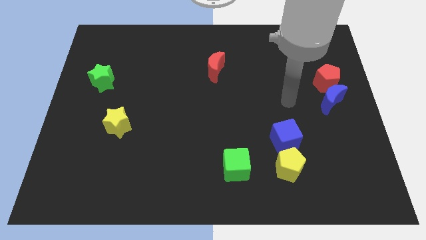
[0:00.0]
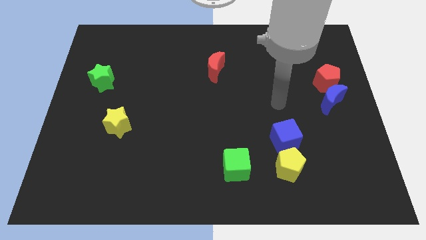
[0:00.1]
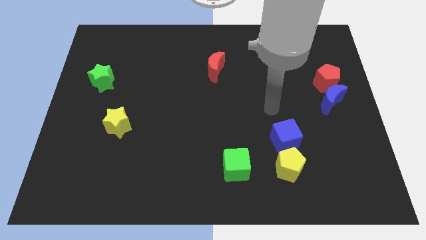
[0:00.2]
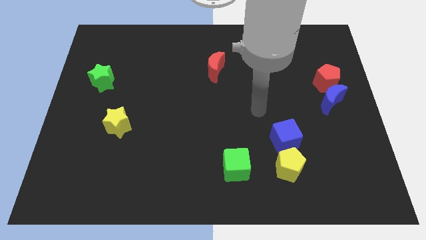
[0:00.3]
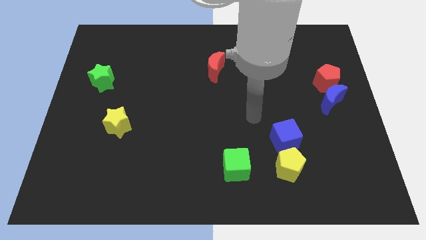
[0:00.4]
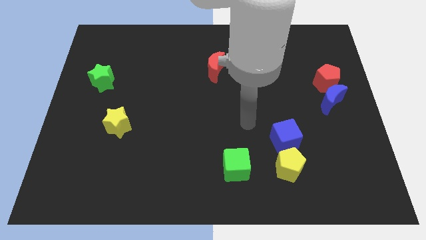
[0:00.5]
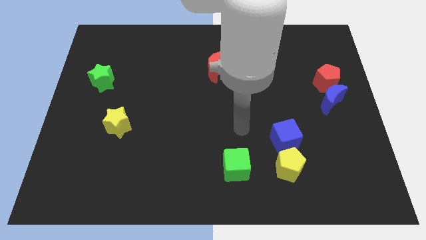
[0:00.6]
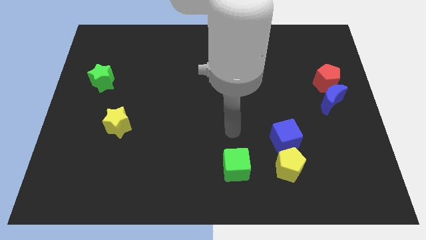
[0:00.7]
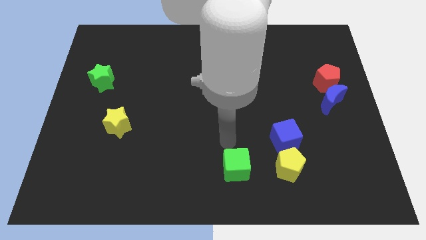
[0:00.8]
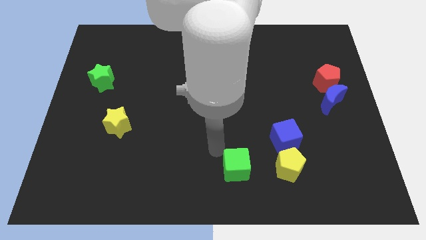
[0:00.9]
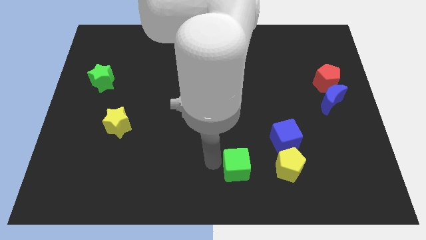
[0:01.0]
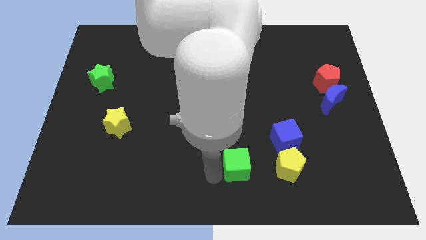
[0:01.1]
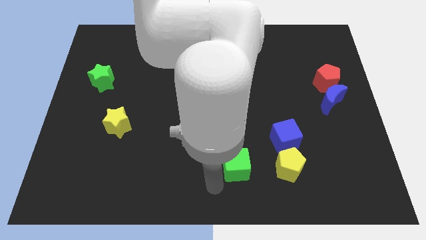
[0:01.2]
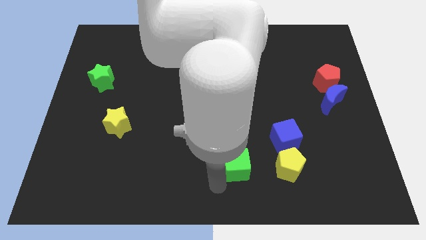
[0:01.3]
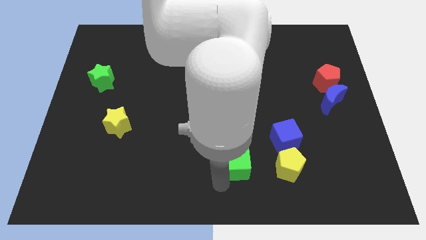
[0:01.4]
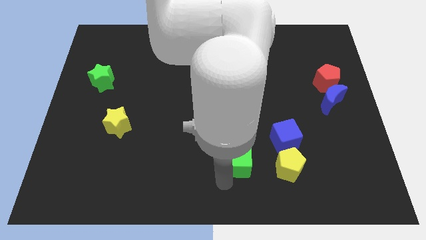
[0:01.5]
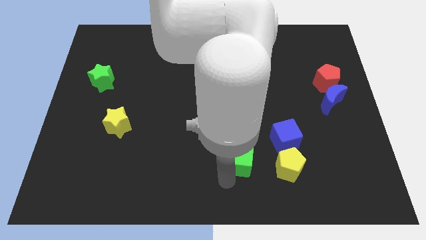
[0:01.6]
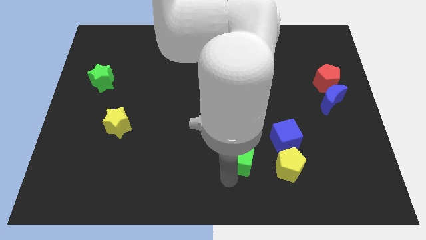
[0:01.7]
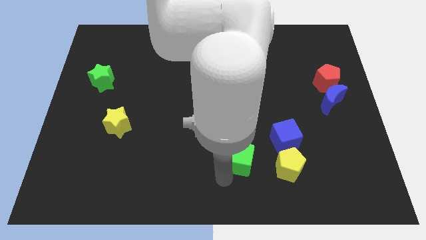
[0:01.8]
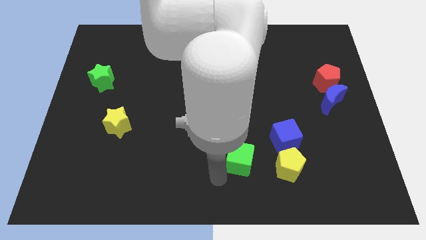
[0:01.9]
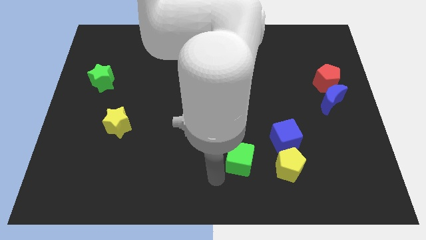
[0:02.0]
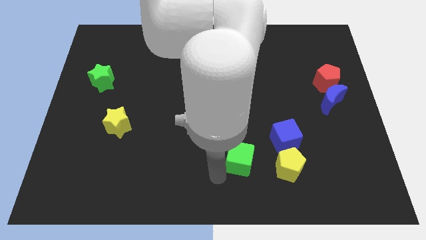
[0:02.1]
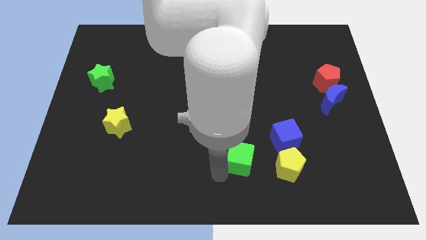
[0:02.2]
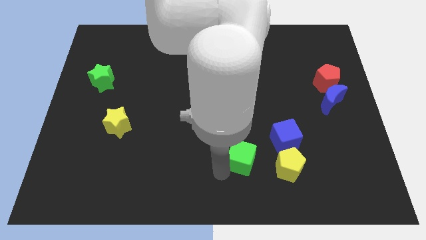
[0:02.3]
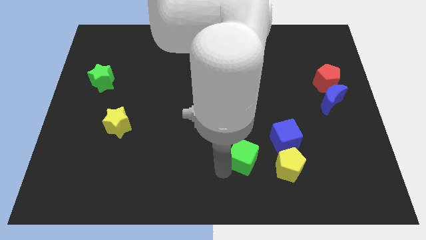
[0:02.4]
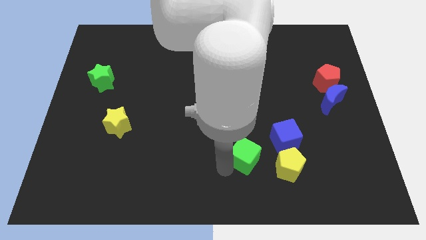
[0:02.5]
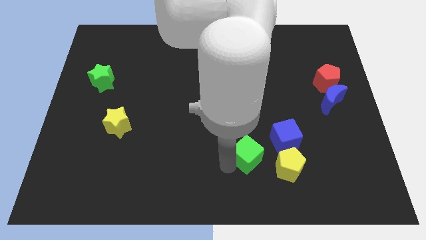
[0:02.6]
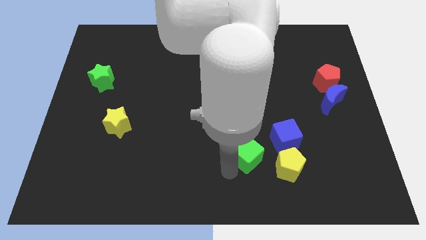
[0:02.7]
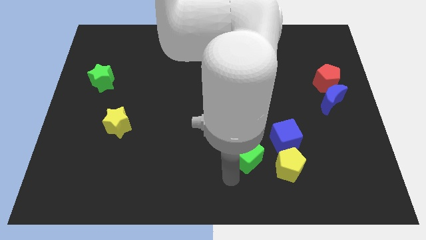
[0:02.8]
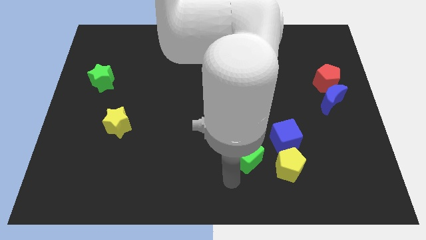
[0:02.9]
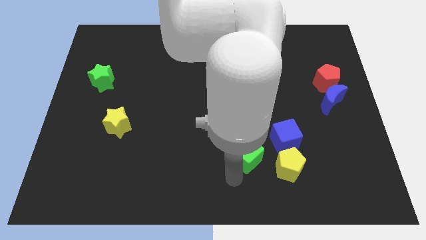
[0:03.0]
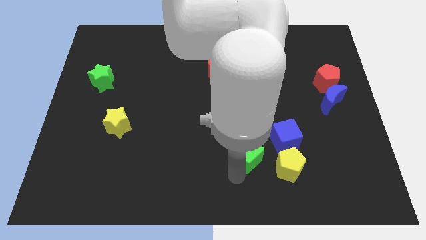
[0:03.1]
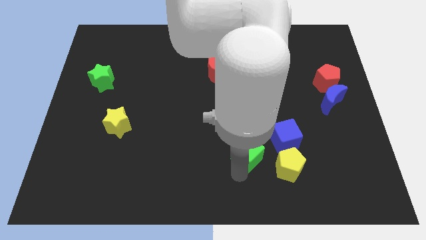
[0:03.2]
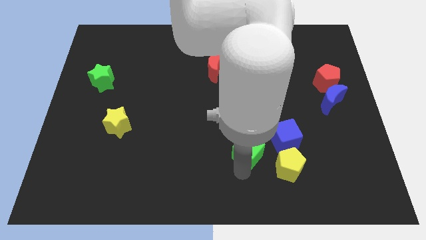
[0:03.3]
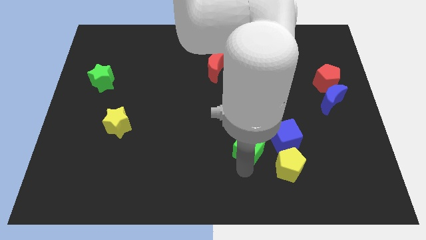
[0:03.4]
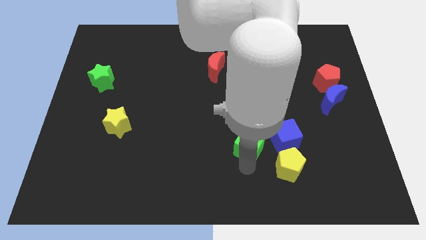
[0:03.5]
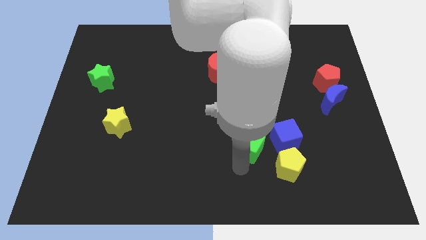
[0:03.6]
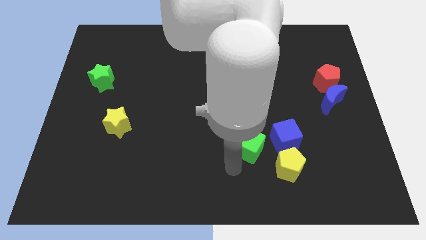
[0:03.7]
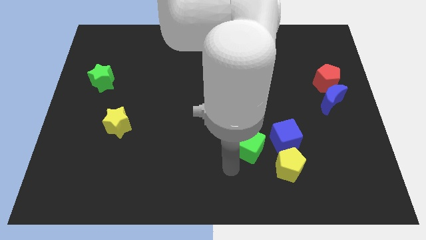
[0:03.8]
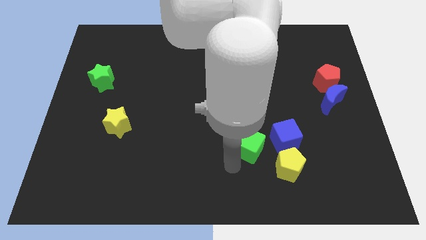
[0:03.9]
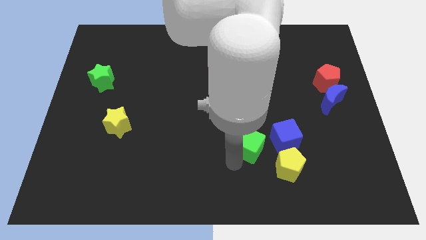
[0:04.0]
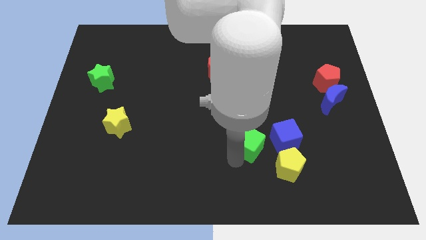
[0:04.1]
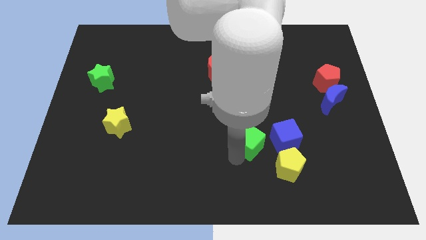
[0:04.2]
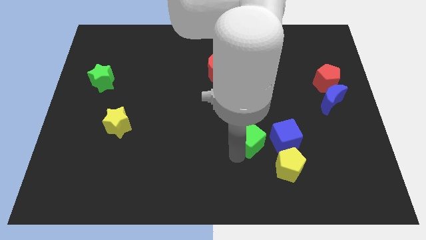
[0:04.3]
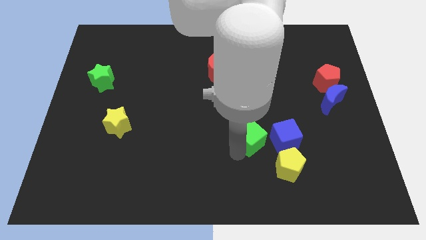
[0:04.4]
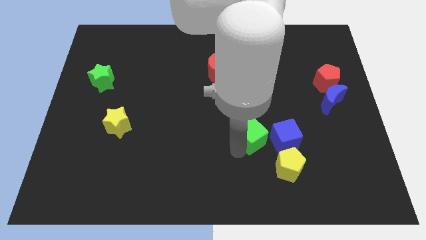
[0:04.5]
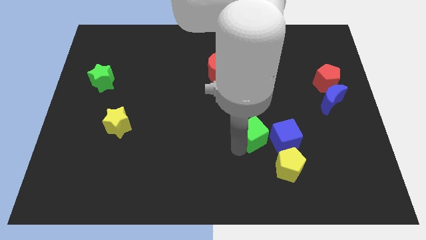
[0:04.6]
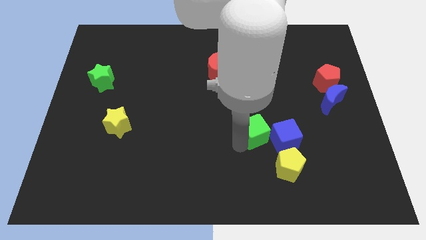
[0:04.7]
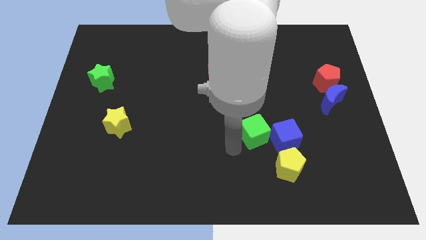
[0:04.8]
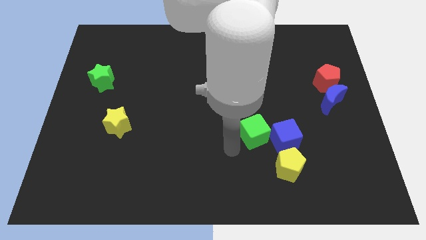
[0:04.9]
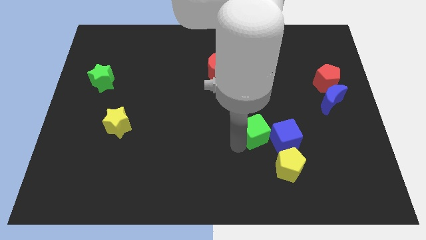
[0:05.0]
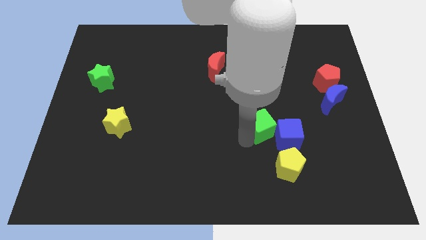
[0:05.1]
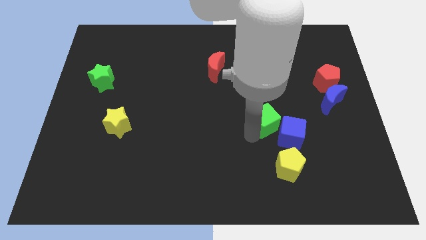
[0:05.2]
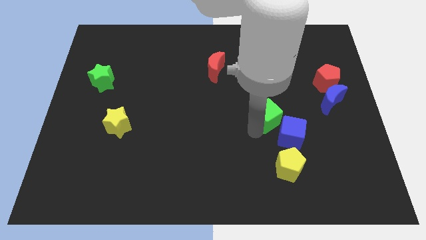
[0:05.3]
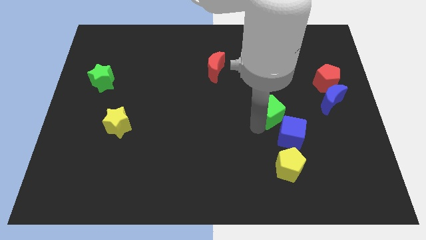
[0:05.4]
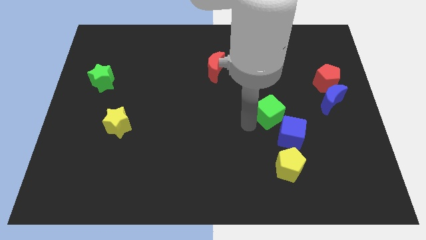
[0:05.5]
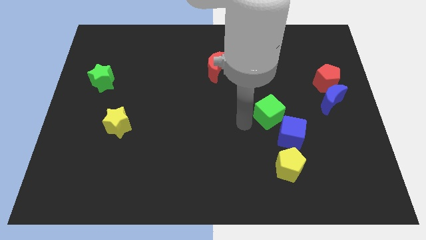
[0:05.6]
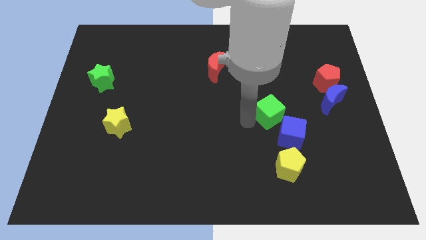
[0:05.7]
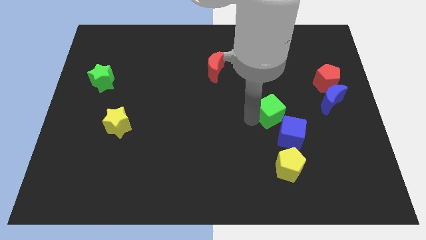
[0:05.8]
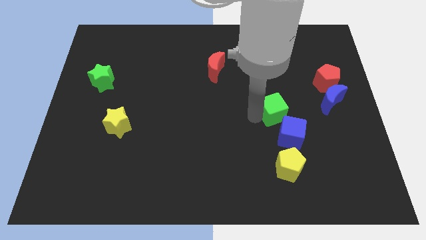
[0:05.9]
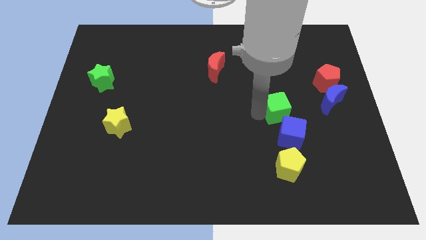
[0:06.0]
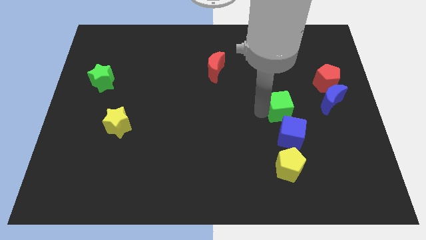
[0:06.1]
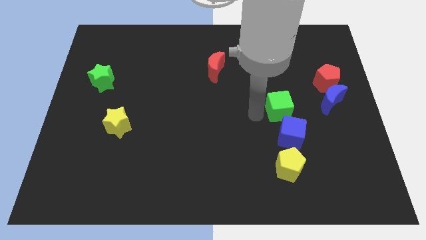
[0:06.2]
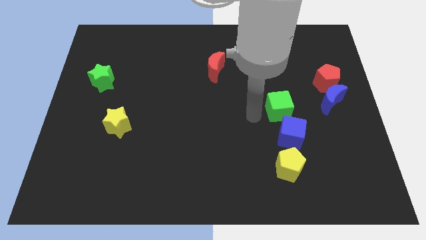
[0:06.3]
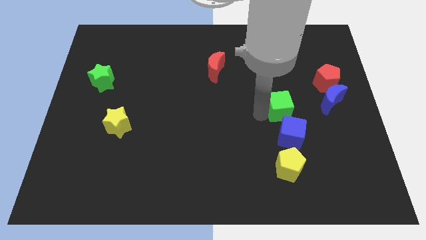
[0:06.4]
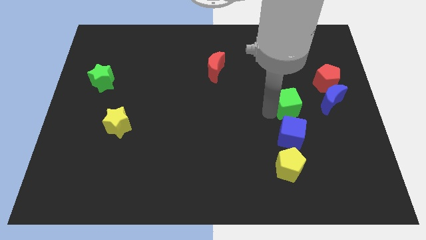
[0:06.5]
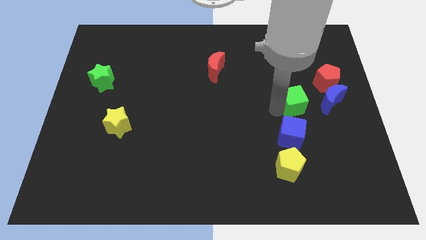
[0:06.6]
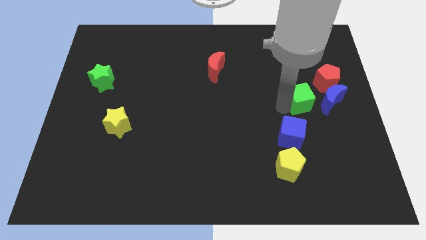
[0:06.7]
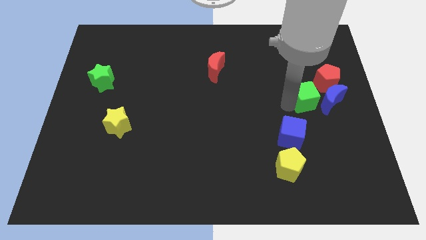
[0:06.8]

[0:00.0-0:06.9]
move the green cube close to the blue moon

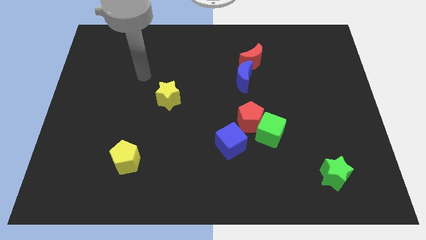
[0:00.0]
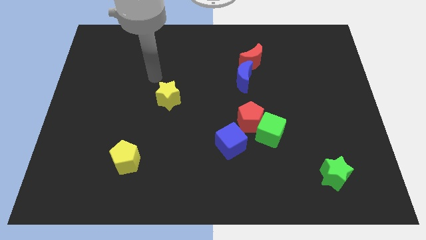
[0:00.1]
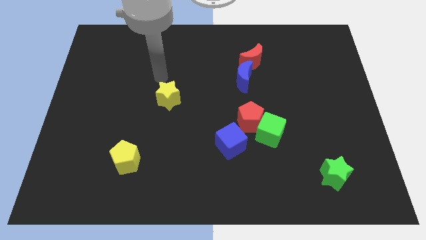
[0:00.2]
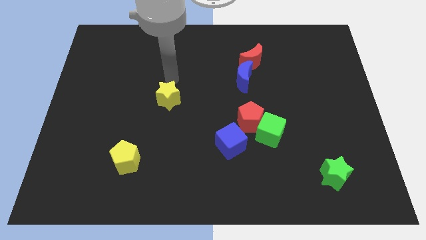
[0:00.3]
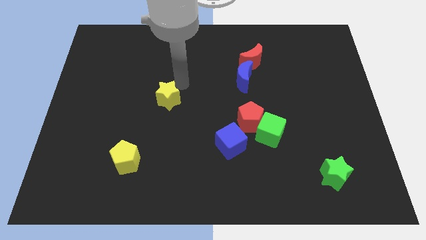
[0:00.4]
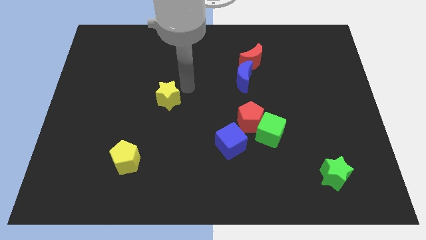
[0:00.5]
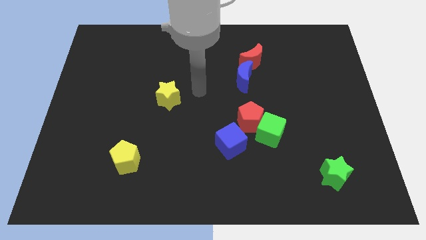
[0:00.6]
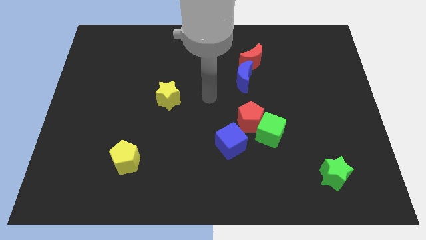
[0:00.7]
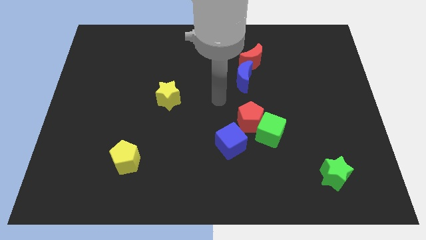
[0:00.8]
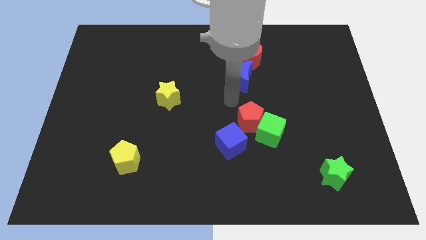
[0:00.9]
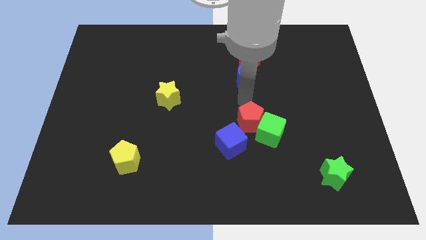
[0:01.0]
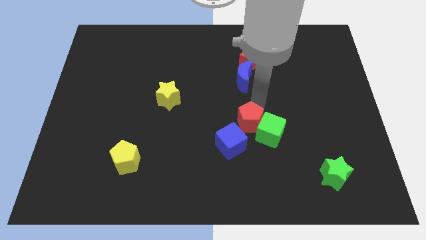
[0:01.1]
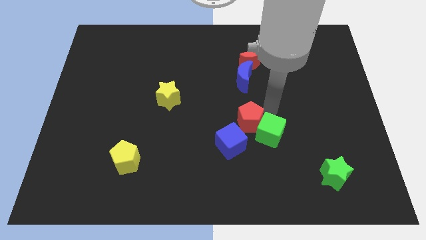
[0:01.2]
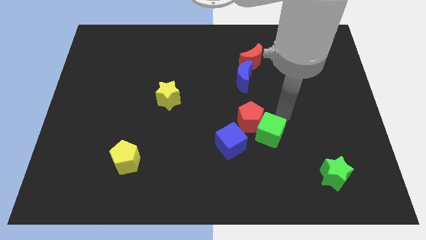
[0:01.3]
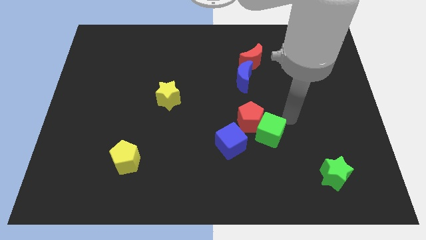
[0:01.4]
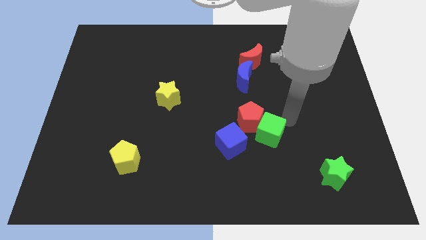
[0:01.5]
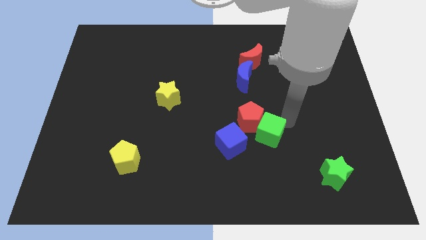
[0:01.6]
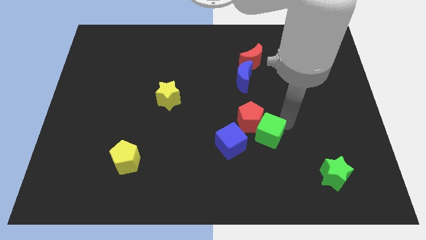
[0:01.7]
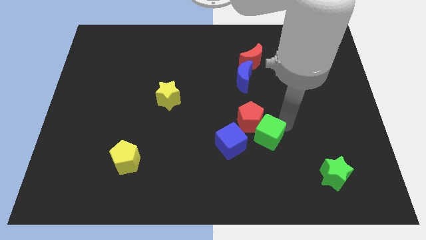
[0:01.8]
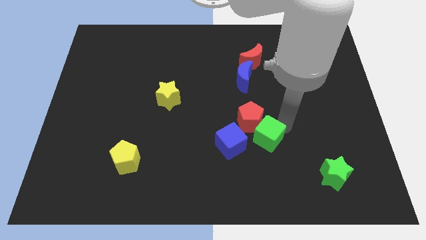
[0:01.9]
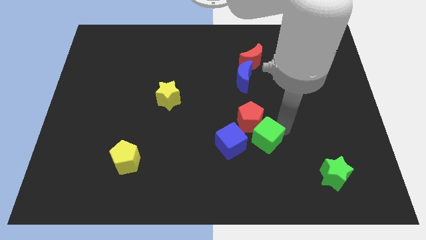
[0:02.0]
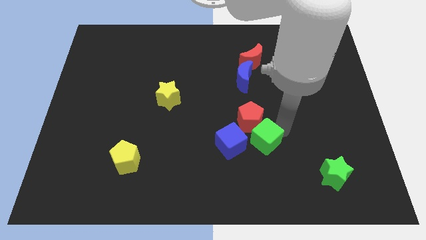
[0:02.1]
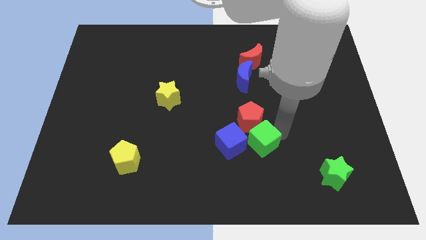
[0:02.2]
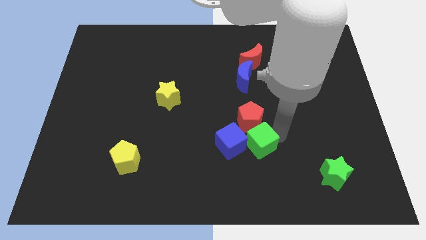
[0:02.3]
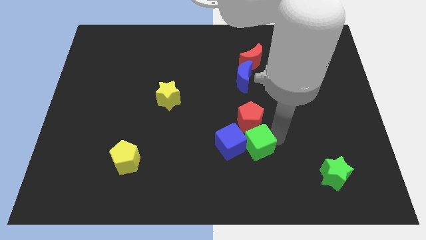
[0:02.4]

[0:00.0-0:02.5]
slide the green cube next to the blue cube
